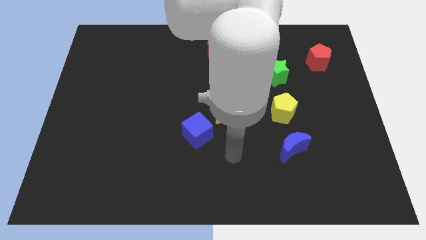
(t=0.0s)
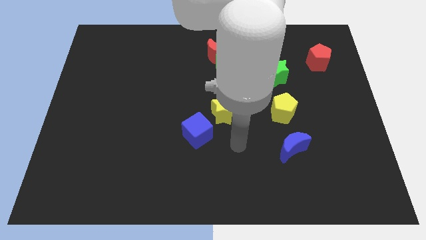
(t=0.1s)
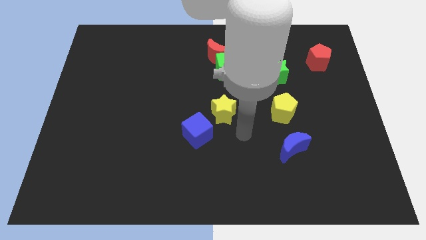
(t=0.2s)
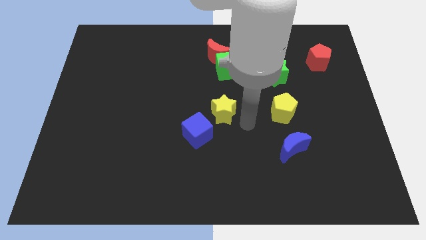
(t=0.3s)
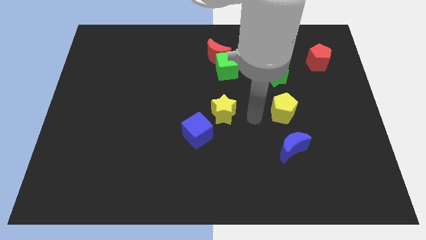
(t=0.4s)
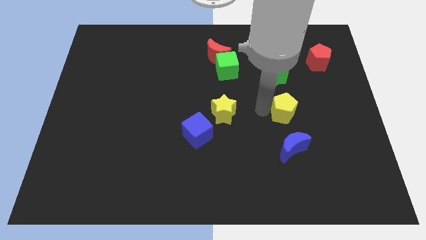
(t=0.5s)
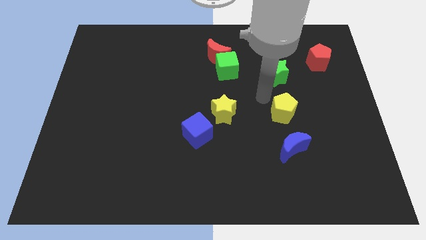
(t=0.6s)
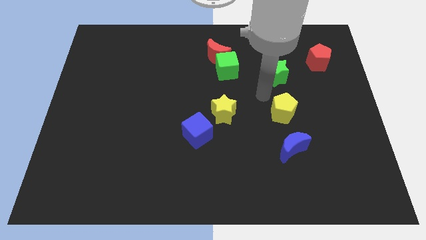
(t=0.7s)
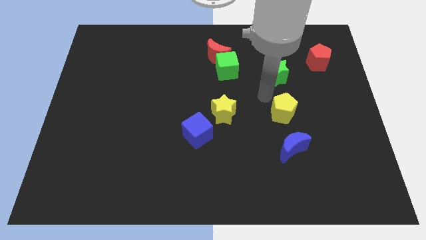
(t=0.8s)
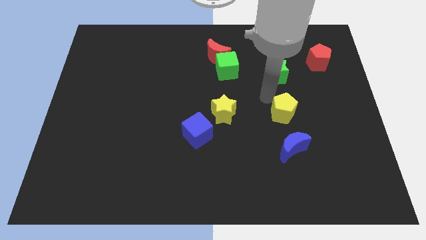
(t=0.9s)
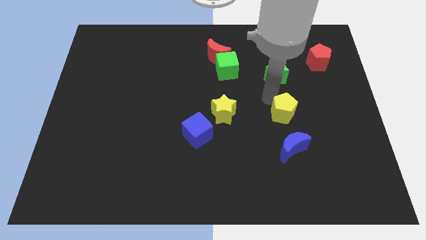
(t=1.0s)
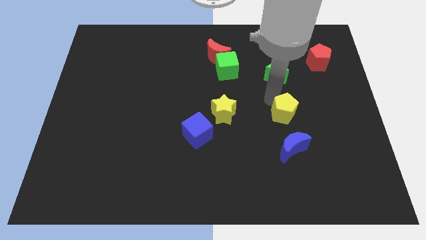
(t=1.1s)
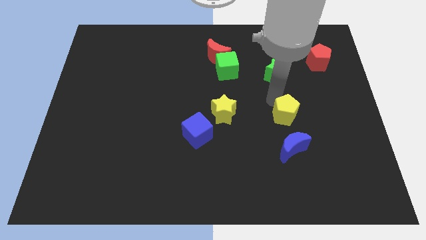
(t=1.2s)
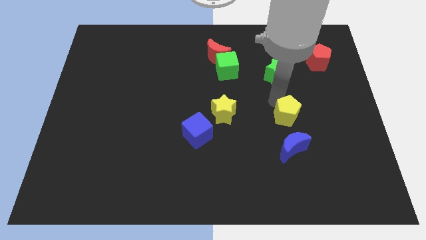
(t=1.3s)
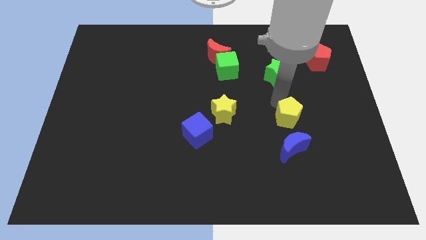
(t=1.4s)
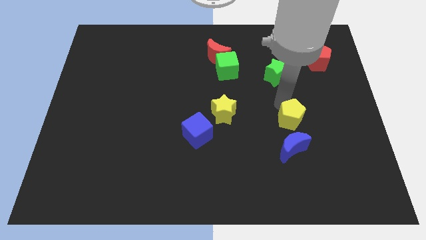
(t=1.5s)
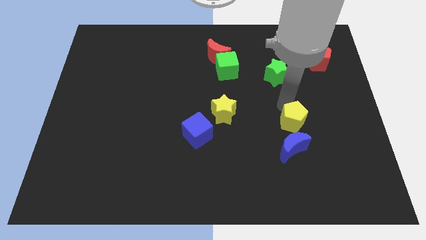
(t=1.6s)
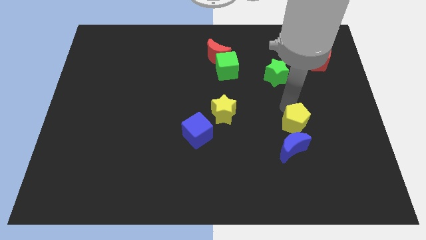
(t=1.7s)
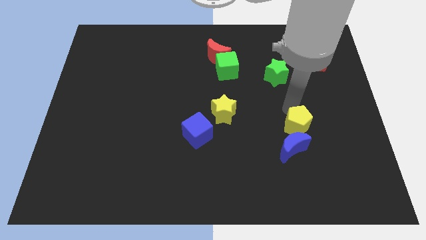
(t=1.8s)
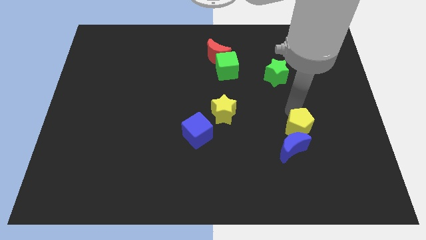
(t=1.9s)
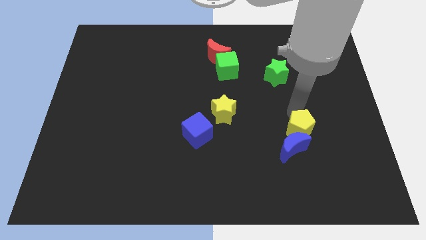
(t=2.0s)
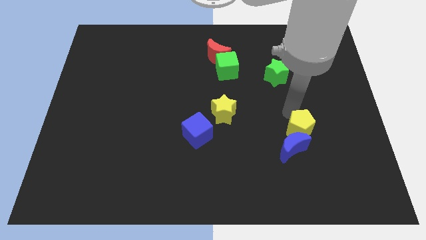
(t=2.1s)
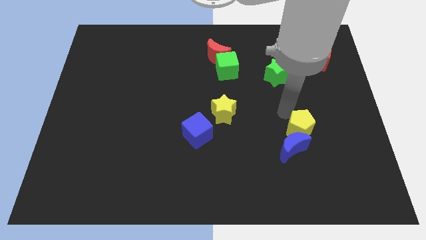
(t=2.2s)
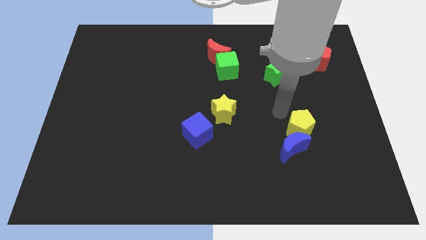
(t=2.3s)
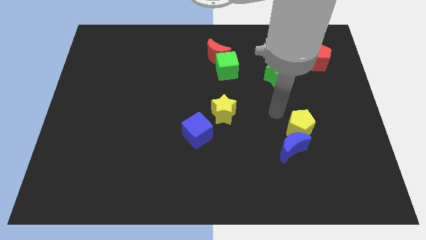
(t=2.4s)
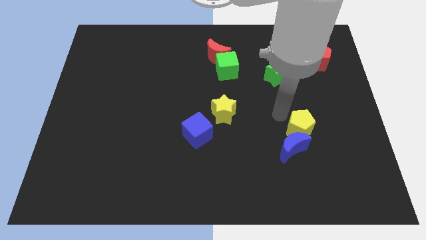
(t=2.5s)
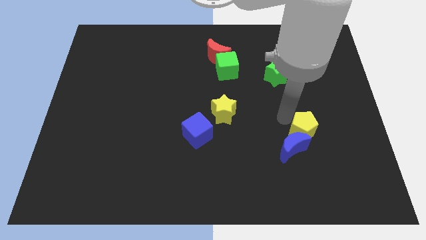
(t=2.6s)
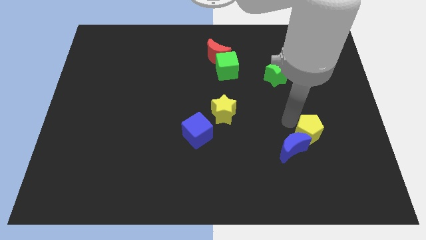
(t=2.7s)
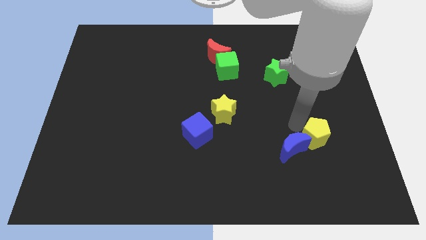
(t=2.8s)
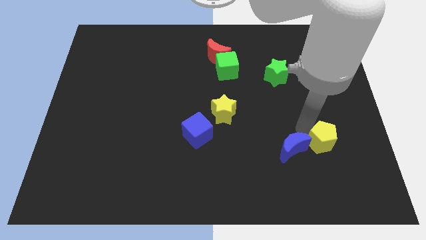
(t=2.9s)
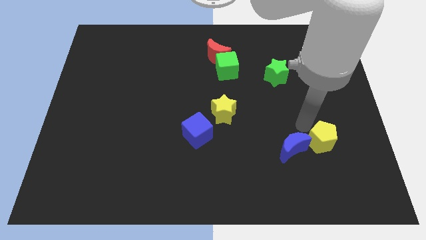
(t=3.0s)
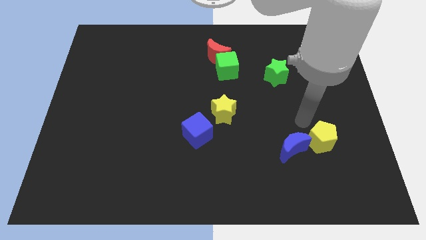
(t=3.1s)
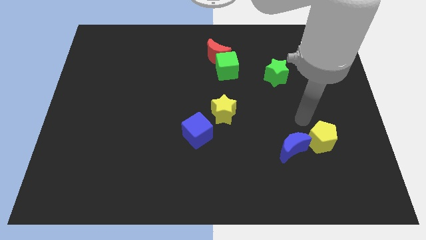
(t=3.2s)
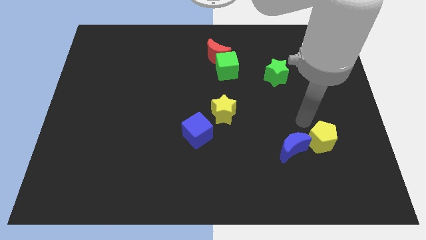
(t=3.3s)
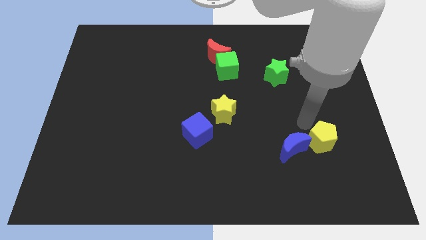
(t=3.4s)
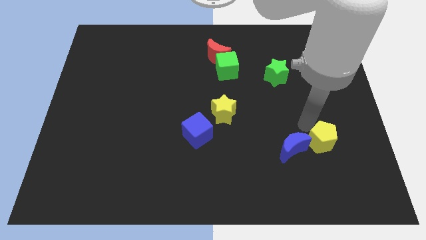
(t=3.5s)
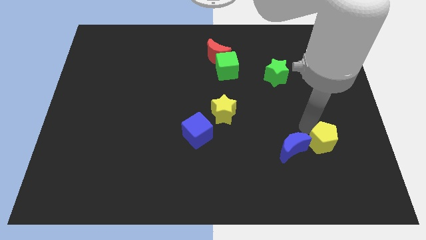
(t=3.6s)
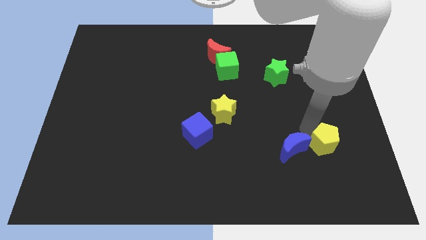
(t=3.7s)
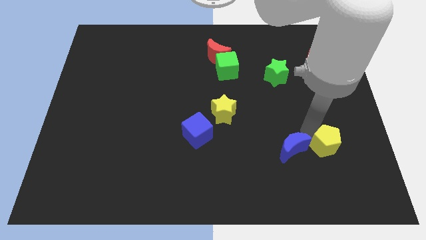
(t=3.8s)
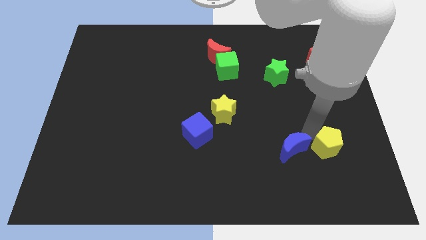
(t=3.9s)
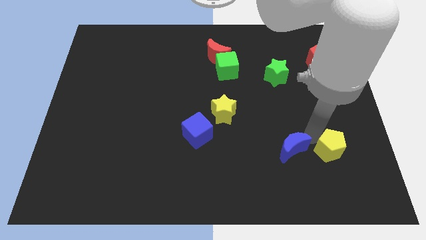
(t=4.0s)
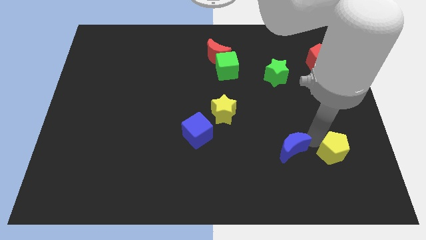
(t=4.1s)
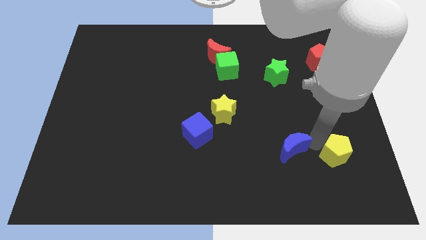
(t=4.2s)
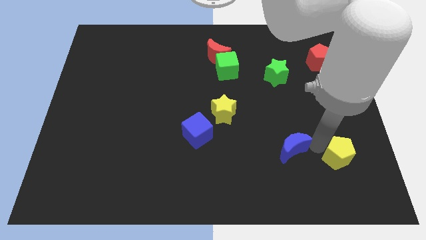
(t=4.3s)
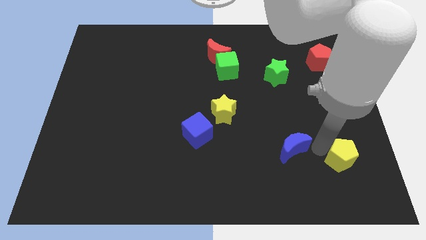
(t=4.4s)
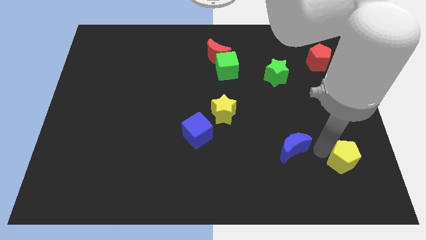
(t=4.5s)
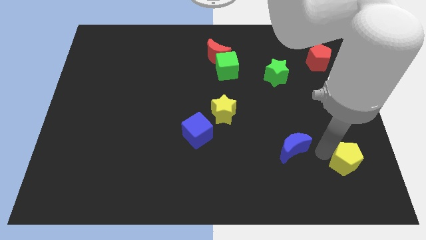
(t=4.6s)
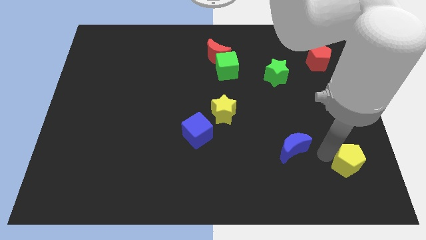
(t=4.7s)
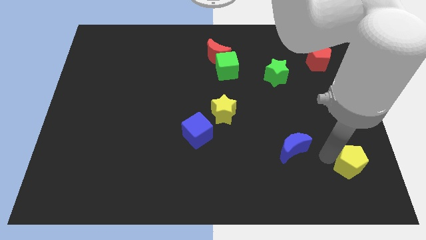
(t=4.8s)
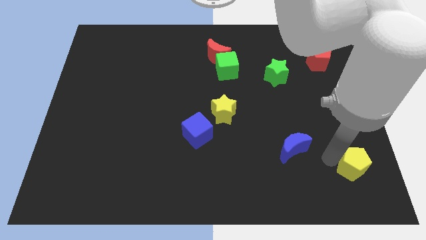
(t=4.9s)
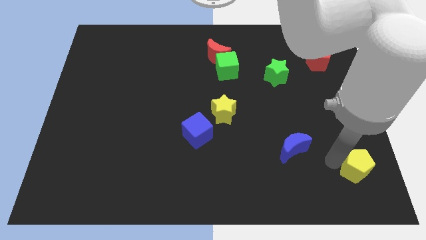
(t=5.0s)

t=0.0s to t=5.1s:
push the yellow pentagon to the lower right corner

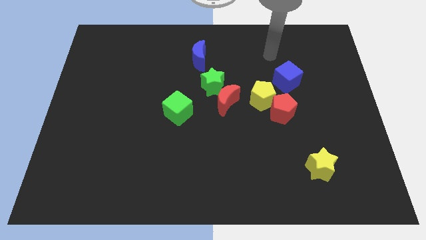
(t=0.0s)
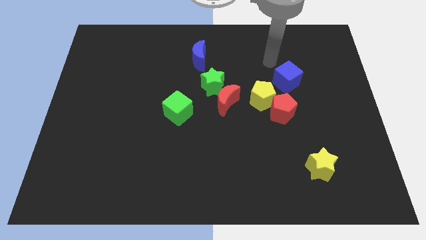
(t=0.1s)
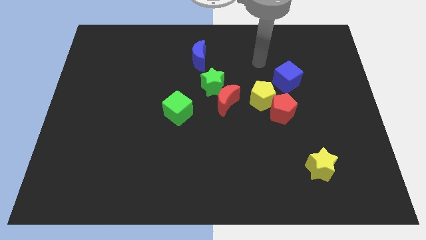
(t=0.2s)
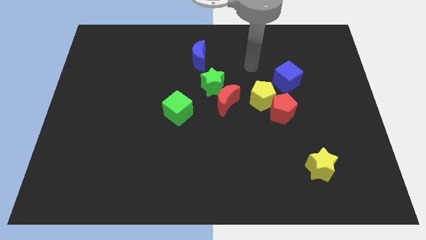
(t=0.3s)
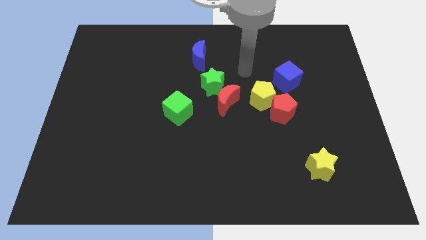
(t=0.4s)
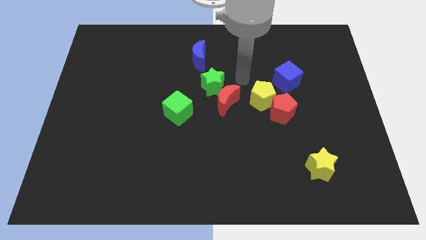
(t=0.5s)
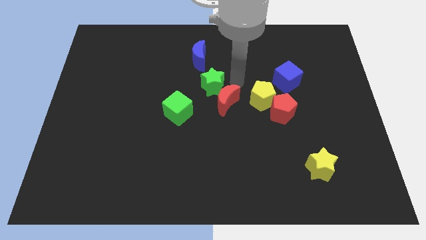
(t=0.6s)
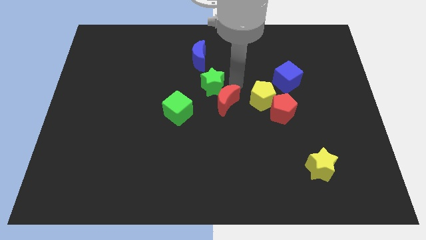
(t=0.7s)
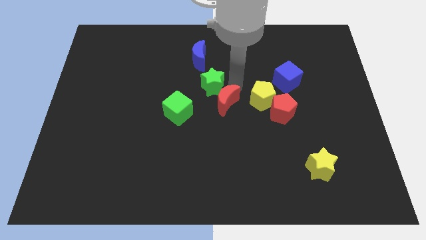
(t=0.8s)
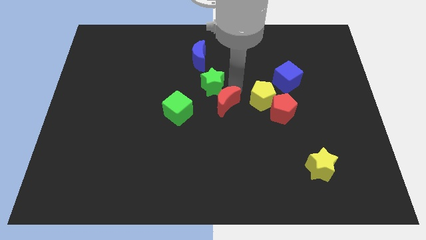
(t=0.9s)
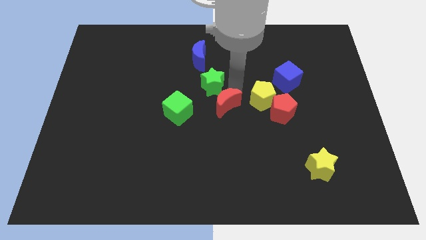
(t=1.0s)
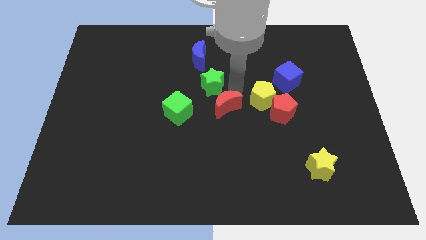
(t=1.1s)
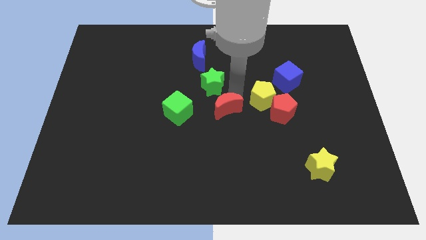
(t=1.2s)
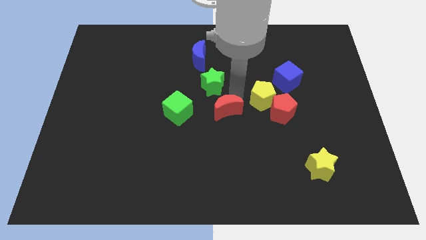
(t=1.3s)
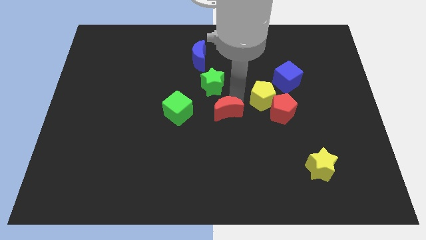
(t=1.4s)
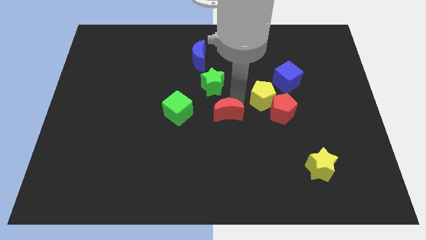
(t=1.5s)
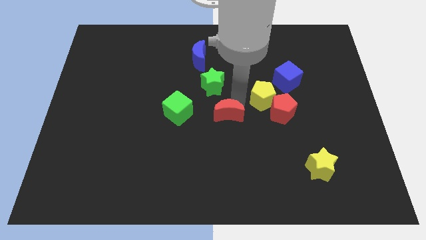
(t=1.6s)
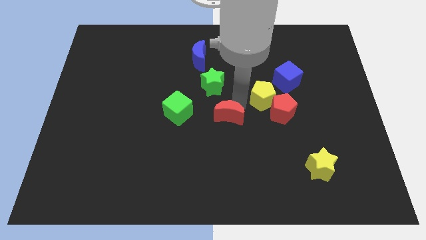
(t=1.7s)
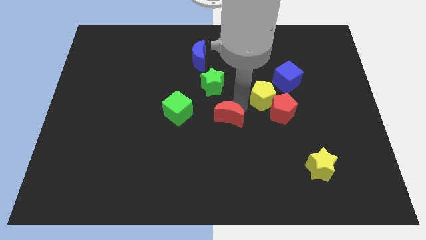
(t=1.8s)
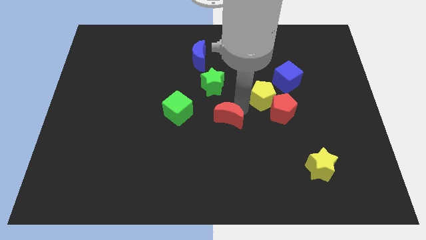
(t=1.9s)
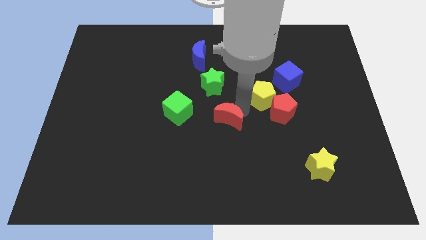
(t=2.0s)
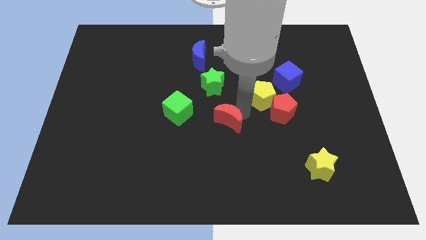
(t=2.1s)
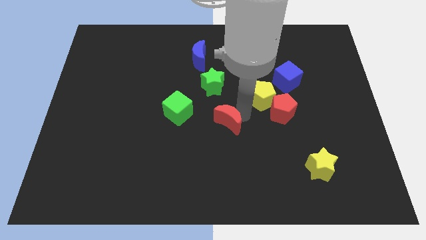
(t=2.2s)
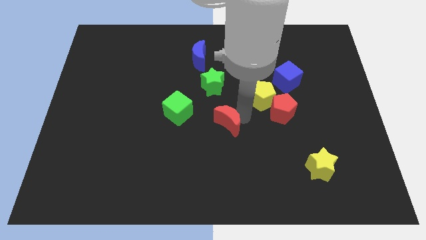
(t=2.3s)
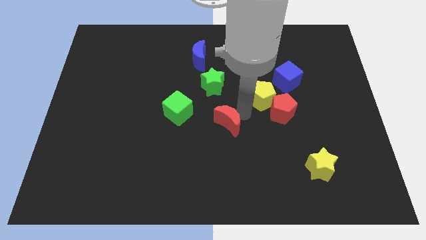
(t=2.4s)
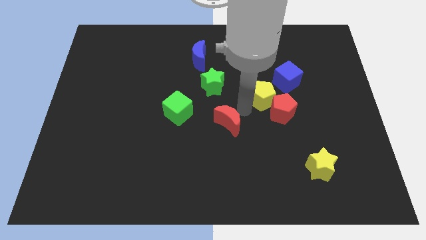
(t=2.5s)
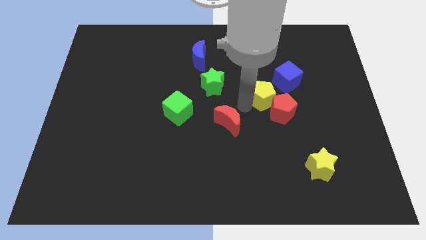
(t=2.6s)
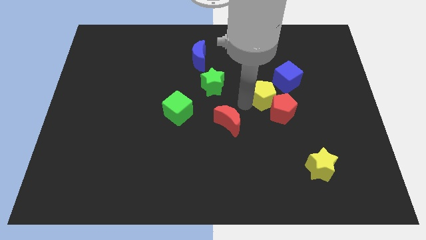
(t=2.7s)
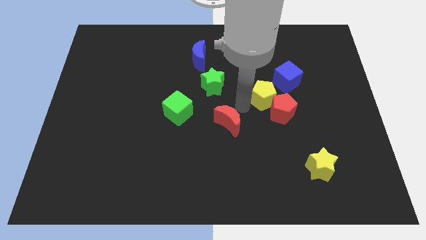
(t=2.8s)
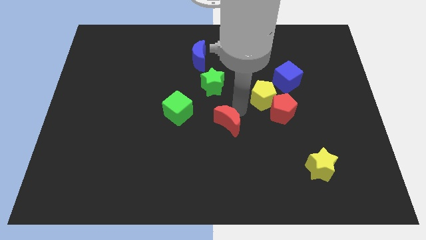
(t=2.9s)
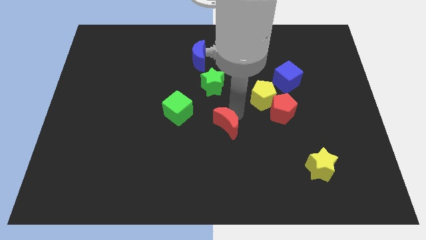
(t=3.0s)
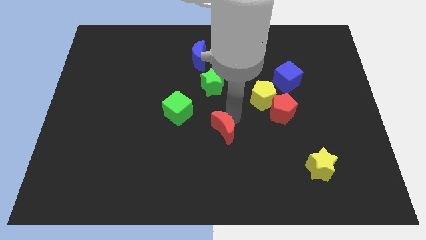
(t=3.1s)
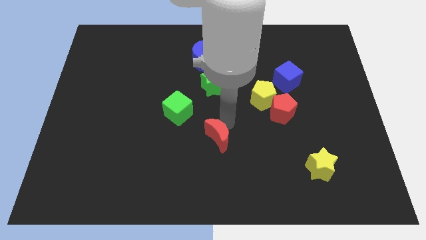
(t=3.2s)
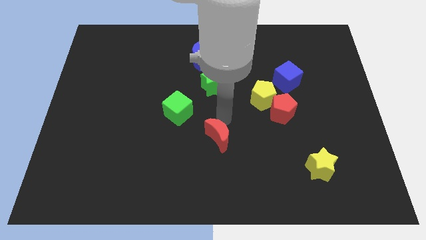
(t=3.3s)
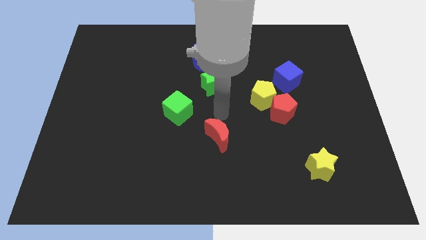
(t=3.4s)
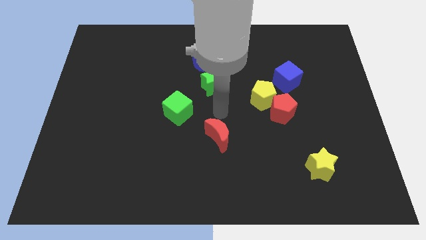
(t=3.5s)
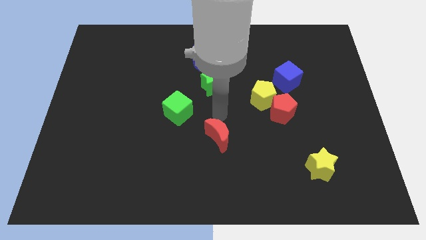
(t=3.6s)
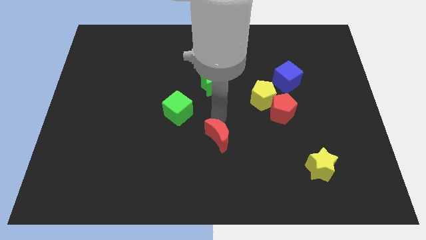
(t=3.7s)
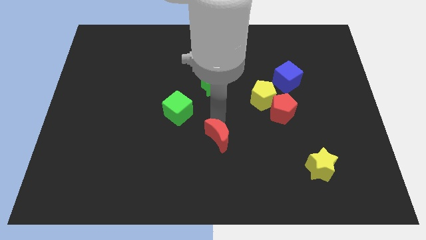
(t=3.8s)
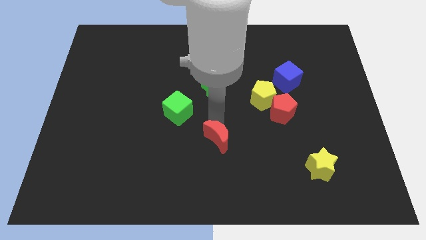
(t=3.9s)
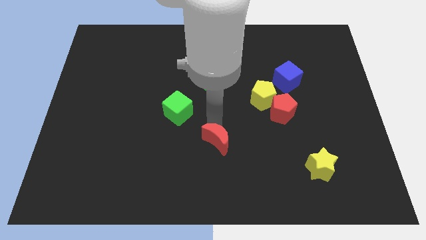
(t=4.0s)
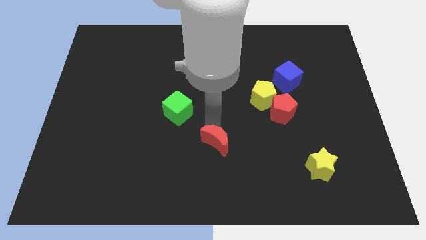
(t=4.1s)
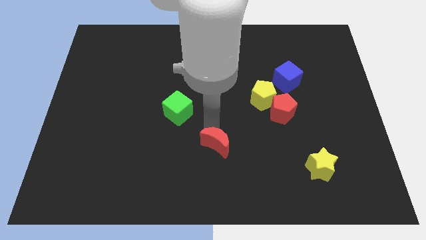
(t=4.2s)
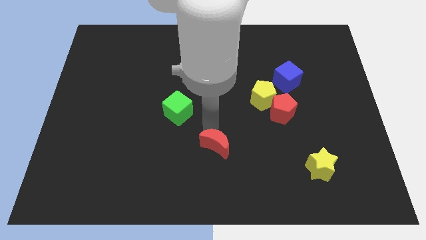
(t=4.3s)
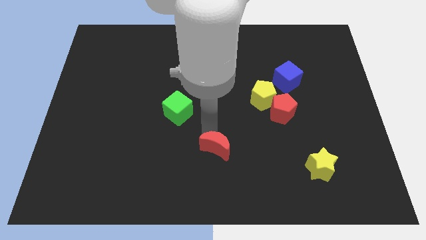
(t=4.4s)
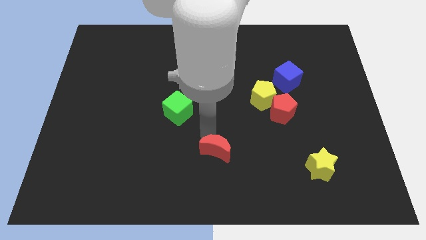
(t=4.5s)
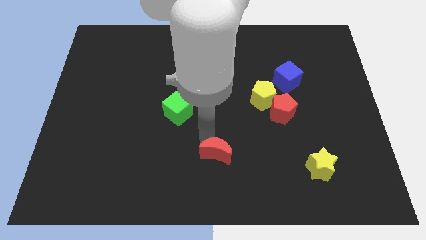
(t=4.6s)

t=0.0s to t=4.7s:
slide the red moon to the bottom
